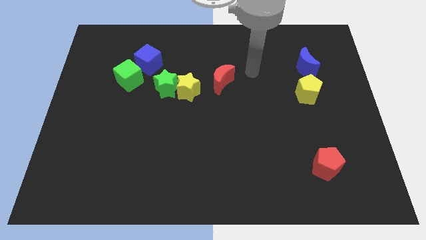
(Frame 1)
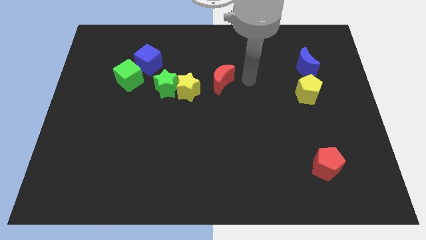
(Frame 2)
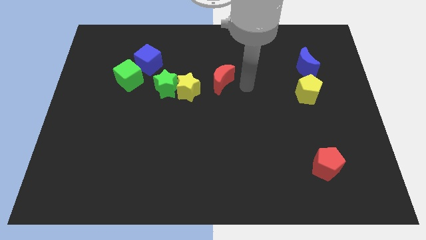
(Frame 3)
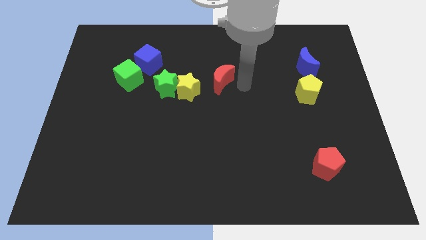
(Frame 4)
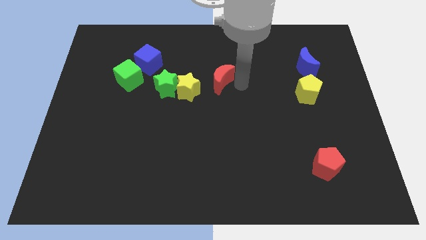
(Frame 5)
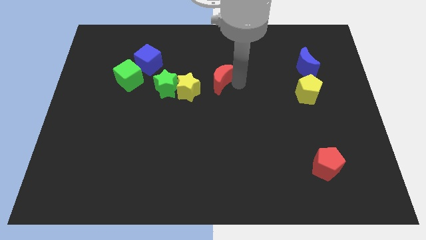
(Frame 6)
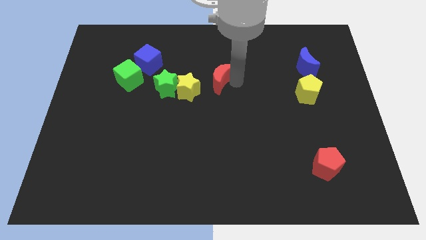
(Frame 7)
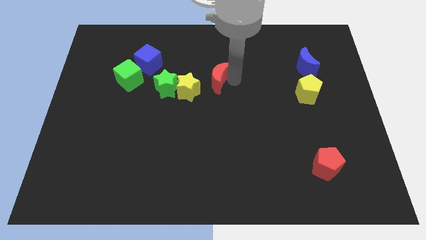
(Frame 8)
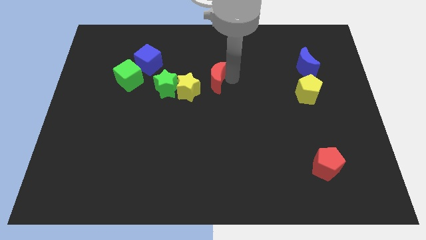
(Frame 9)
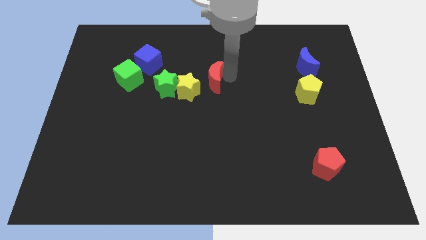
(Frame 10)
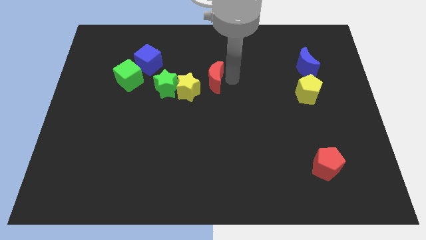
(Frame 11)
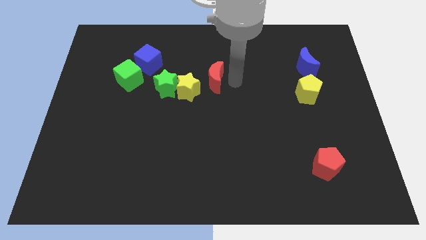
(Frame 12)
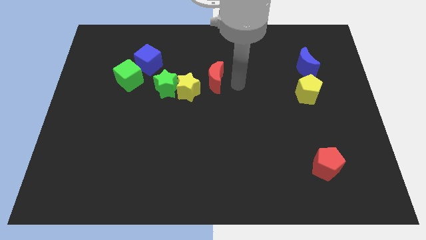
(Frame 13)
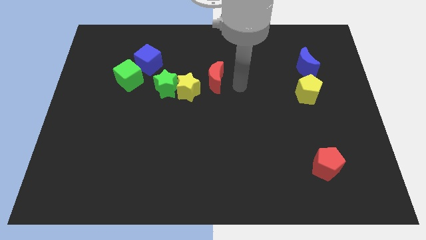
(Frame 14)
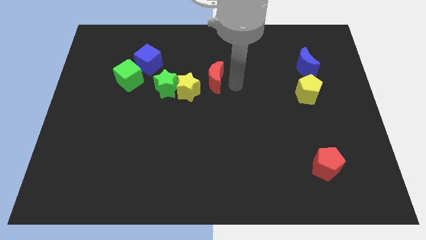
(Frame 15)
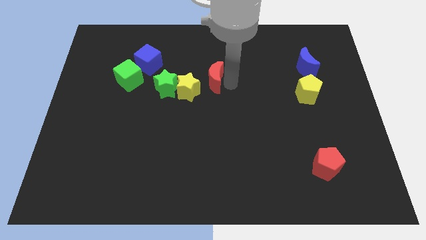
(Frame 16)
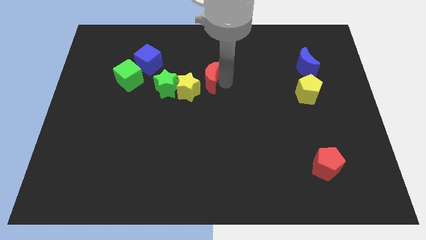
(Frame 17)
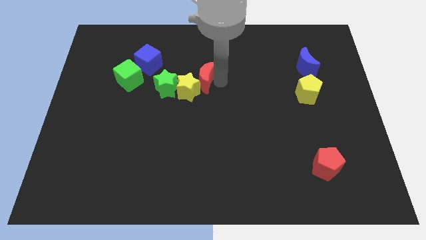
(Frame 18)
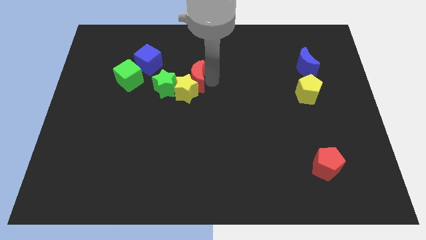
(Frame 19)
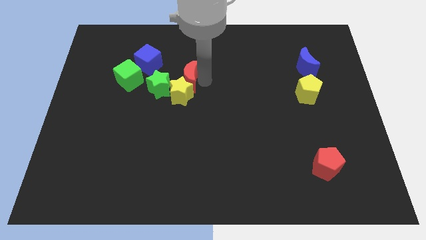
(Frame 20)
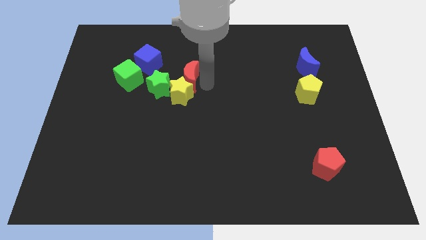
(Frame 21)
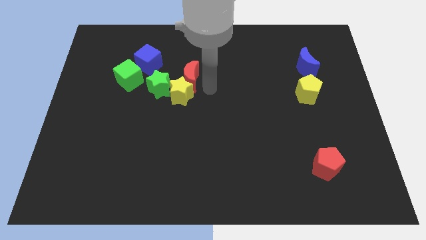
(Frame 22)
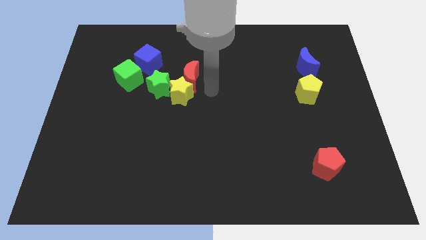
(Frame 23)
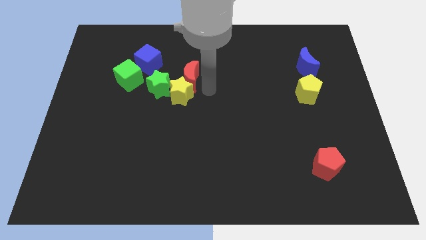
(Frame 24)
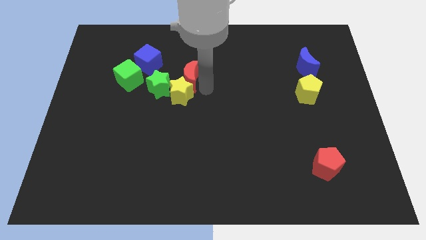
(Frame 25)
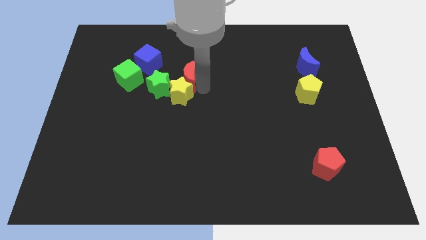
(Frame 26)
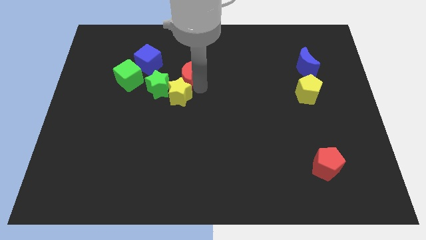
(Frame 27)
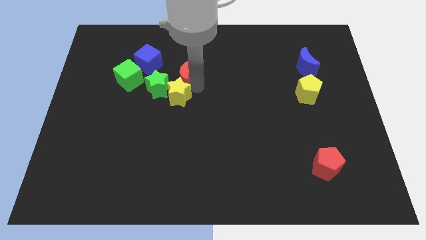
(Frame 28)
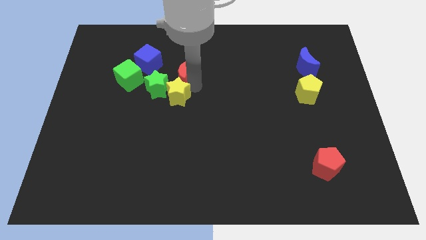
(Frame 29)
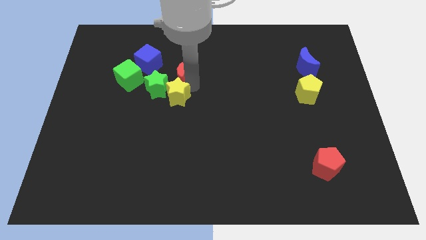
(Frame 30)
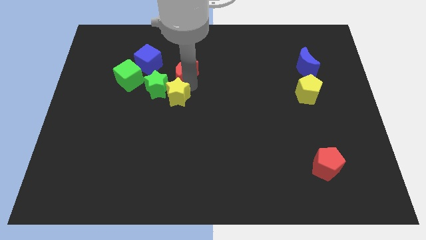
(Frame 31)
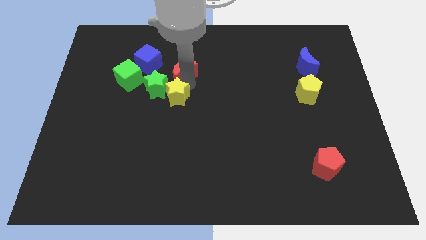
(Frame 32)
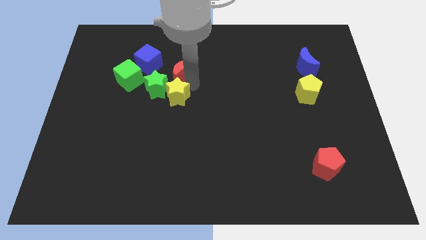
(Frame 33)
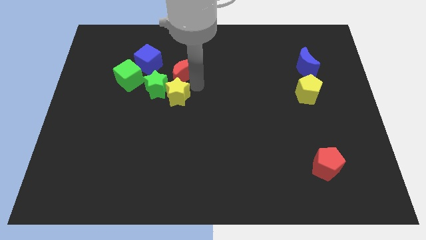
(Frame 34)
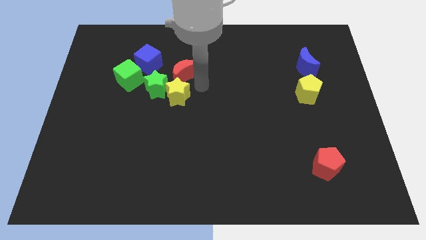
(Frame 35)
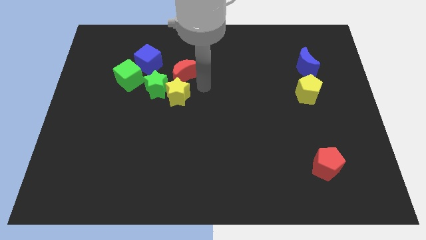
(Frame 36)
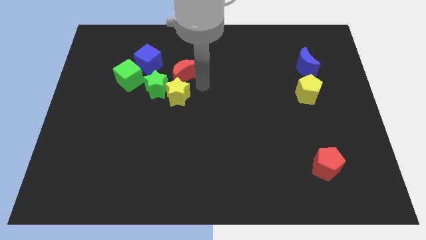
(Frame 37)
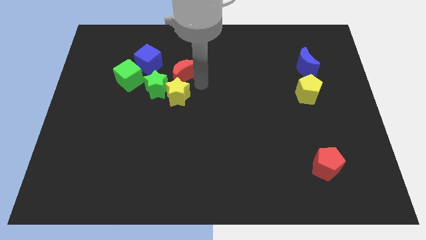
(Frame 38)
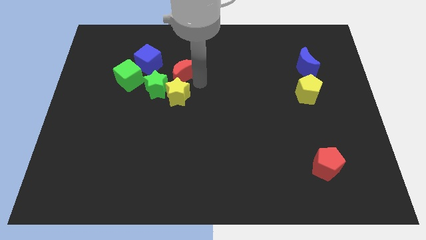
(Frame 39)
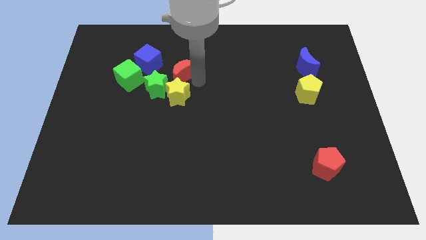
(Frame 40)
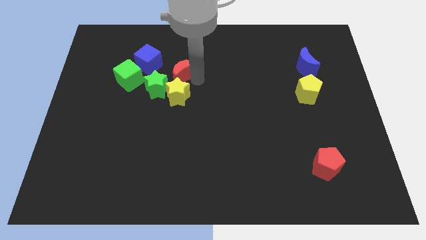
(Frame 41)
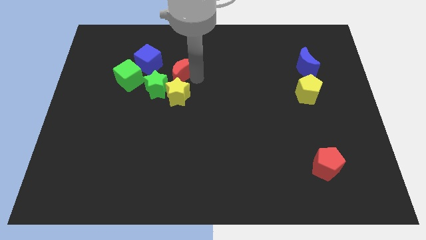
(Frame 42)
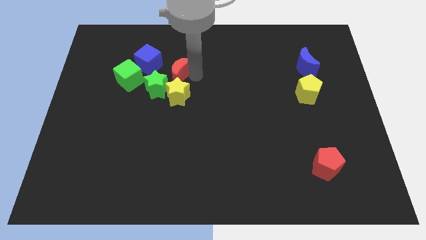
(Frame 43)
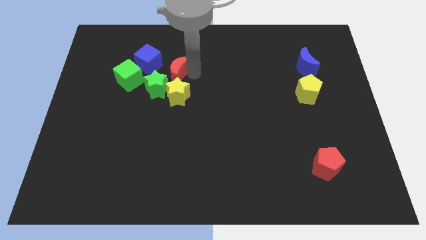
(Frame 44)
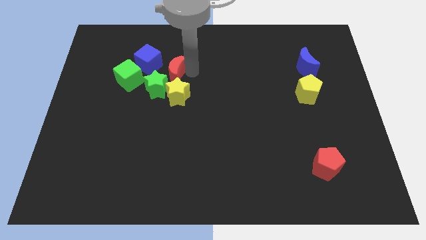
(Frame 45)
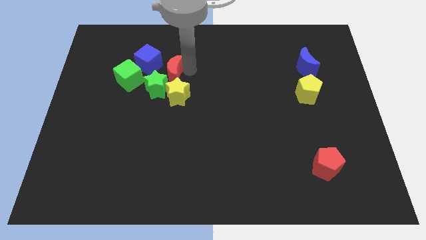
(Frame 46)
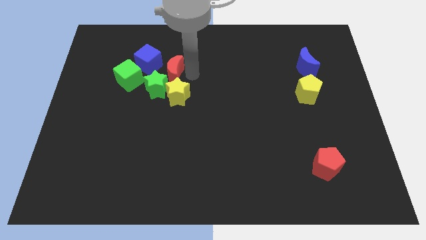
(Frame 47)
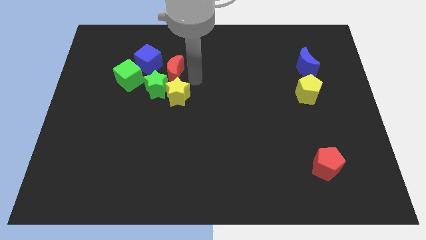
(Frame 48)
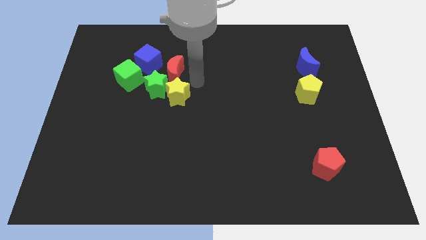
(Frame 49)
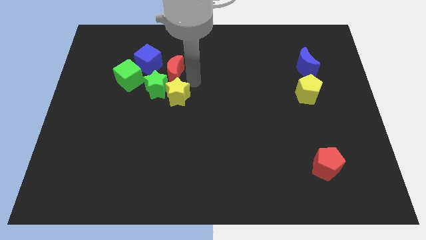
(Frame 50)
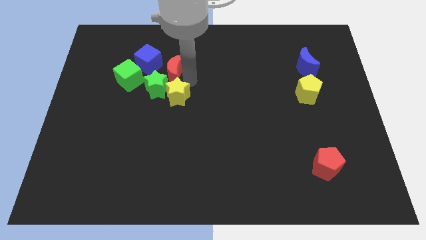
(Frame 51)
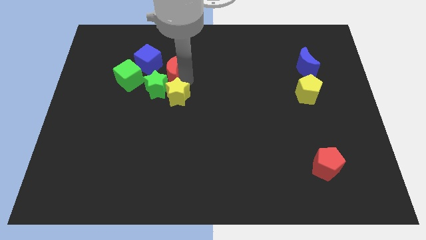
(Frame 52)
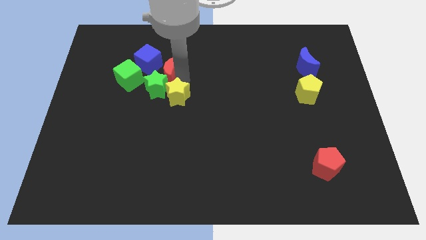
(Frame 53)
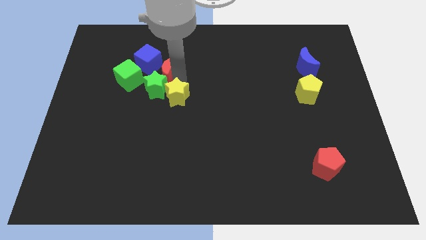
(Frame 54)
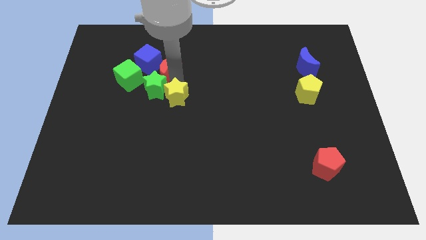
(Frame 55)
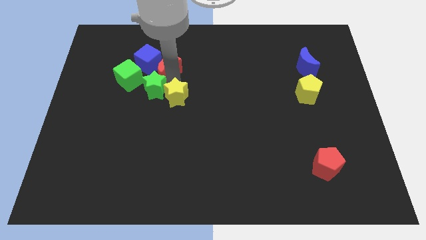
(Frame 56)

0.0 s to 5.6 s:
slide the red moon close to the blue cube

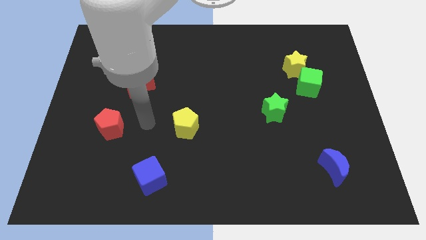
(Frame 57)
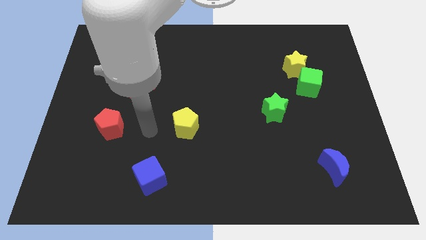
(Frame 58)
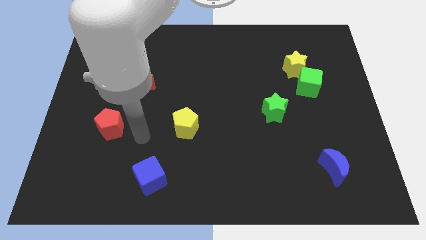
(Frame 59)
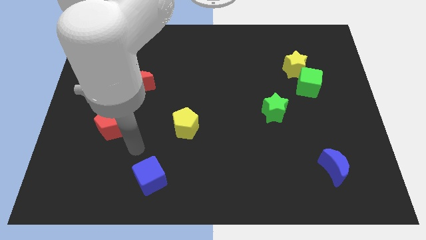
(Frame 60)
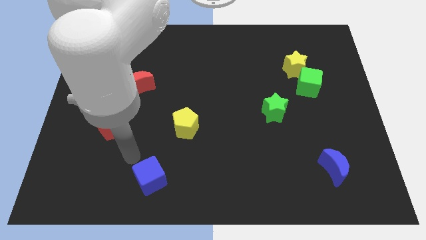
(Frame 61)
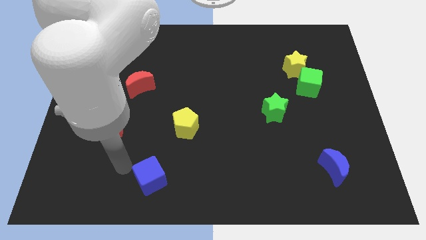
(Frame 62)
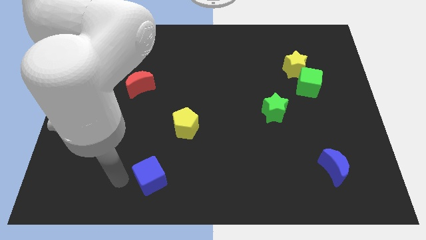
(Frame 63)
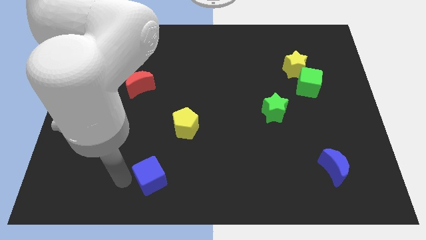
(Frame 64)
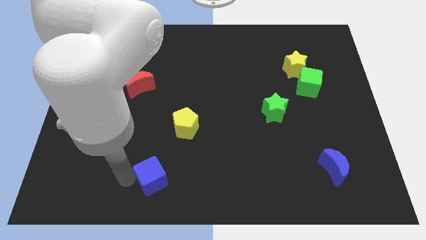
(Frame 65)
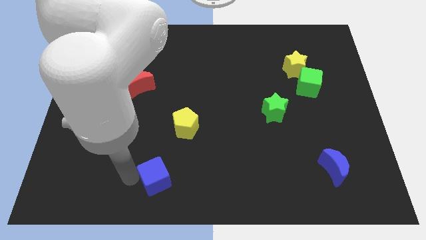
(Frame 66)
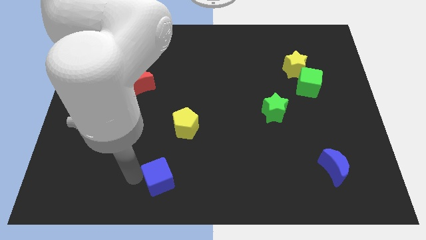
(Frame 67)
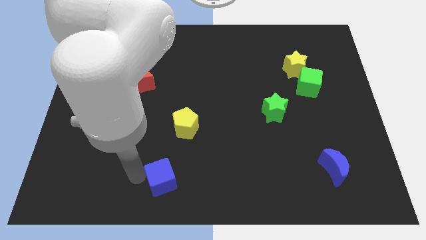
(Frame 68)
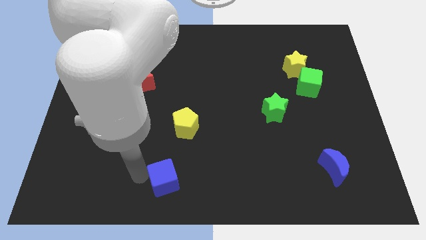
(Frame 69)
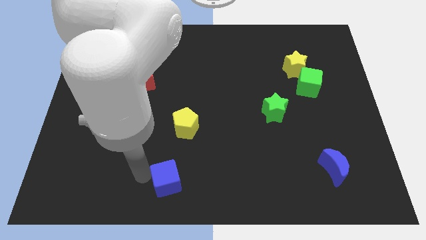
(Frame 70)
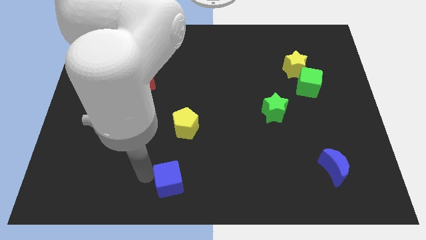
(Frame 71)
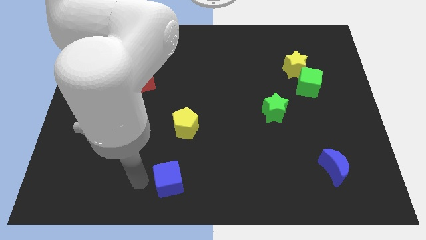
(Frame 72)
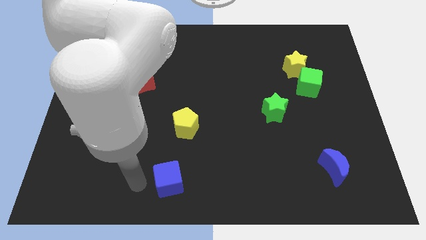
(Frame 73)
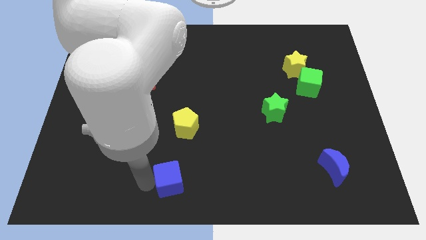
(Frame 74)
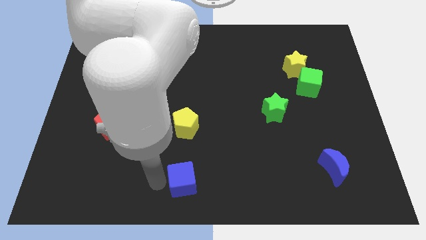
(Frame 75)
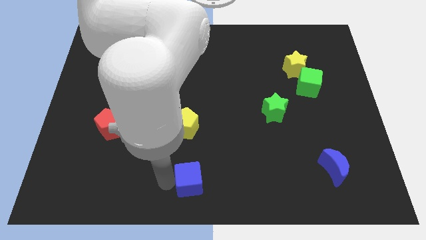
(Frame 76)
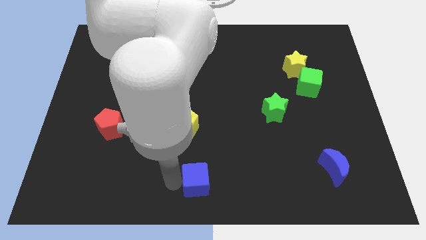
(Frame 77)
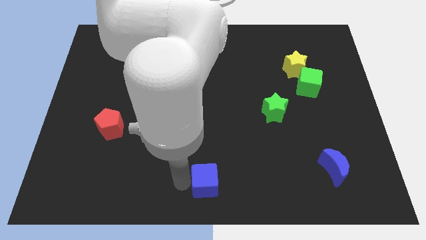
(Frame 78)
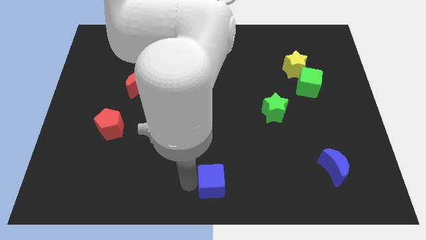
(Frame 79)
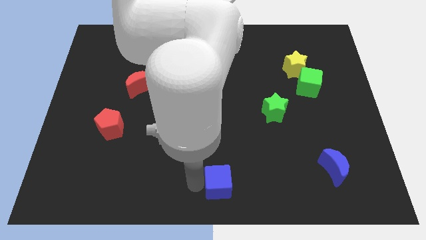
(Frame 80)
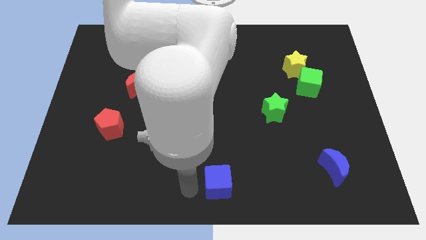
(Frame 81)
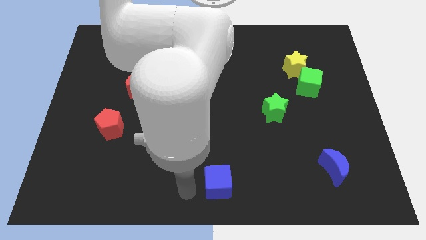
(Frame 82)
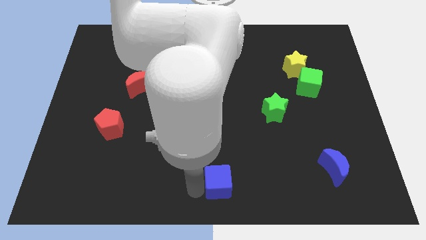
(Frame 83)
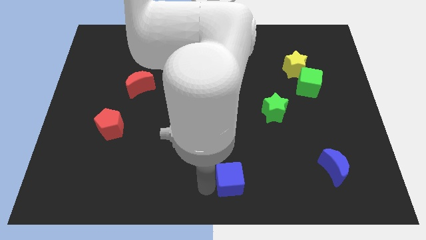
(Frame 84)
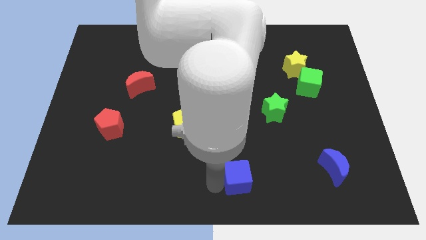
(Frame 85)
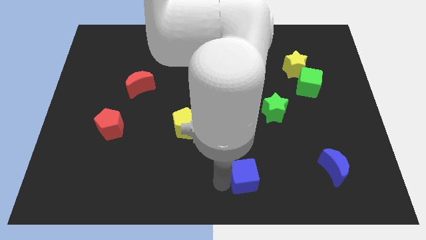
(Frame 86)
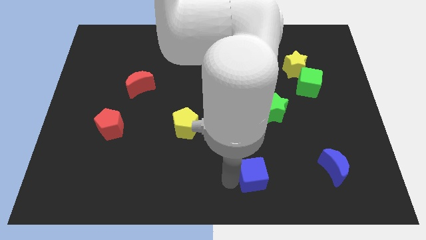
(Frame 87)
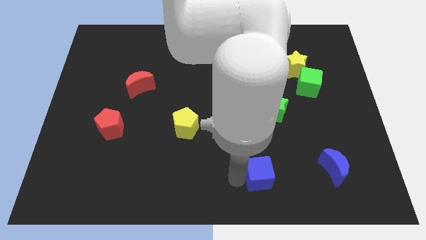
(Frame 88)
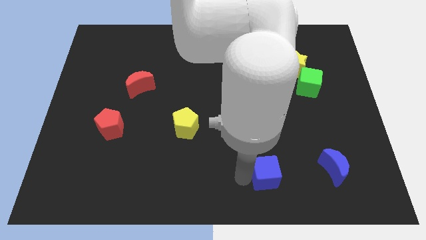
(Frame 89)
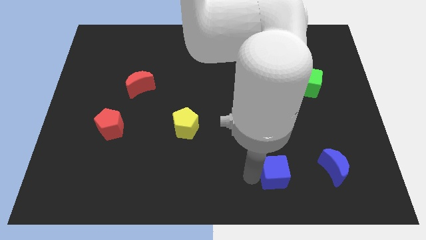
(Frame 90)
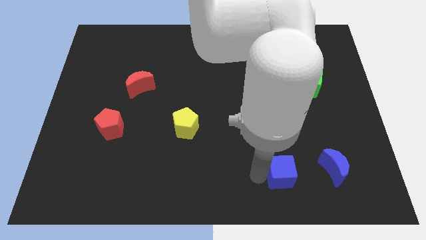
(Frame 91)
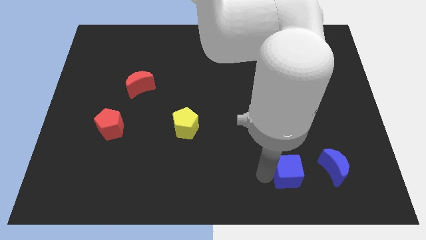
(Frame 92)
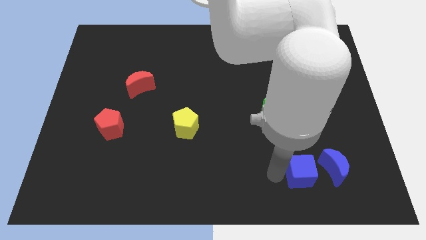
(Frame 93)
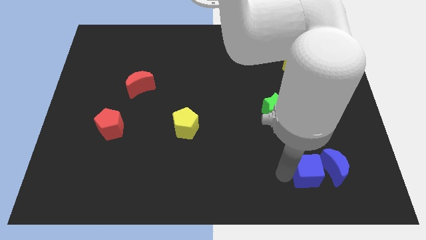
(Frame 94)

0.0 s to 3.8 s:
put the blue cube next to the blue moon
